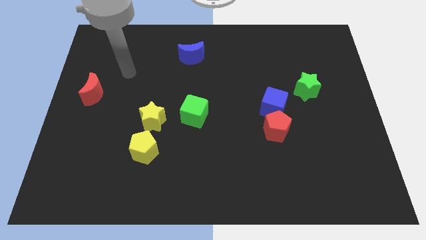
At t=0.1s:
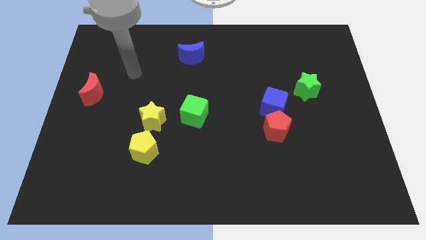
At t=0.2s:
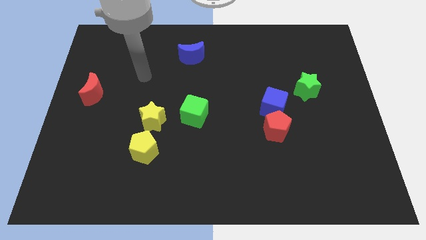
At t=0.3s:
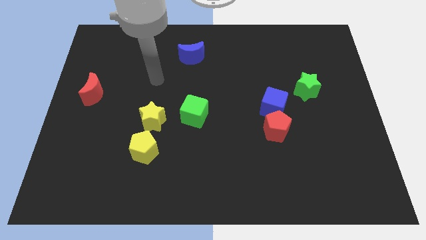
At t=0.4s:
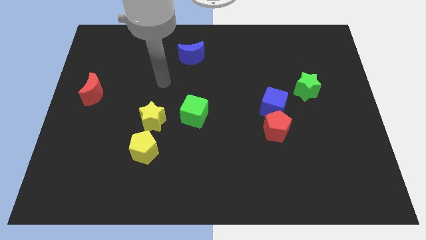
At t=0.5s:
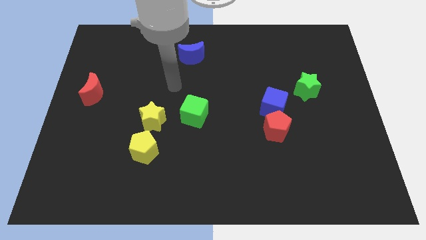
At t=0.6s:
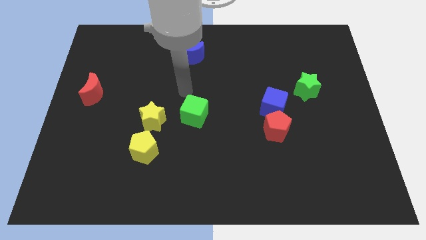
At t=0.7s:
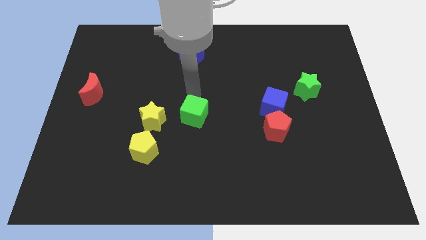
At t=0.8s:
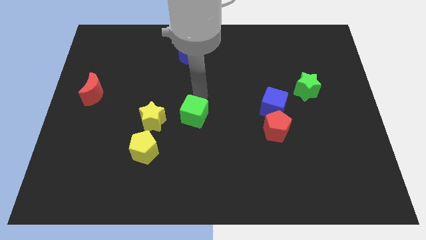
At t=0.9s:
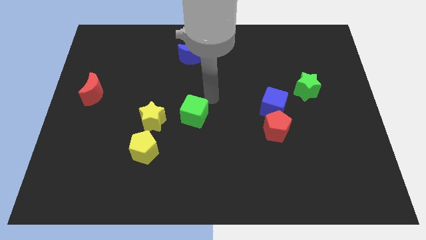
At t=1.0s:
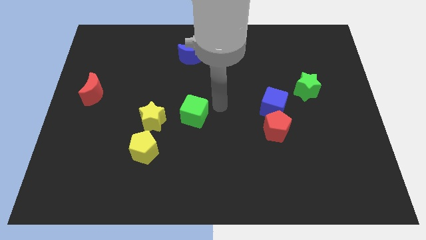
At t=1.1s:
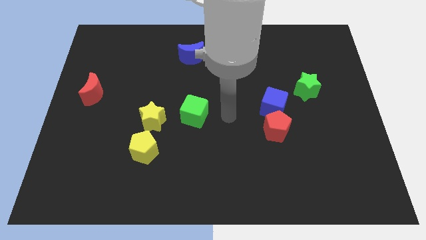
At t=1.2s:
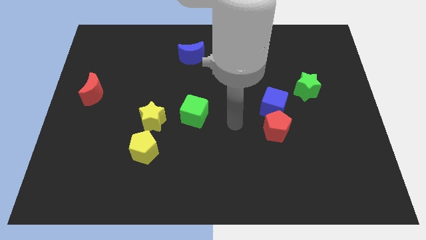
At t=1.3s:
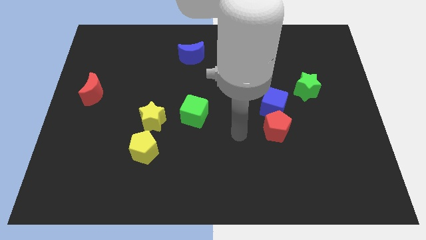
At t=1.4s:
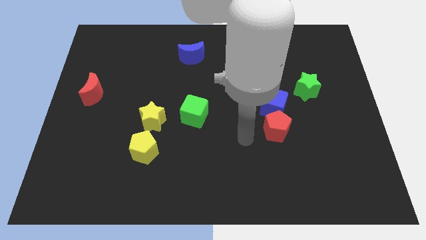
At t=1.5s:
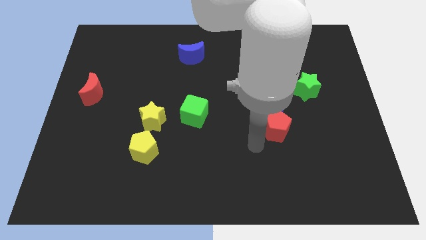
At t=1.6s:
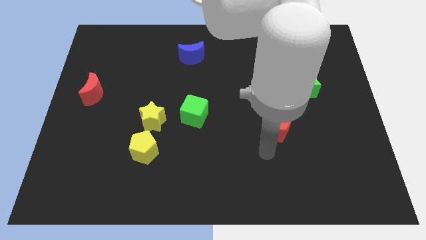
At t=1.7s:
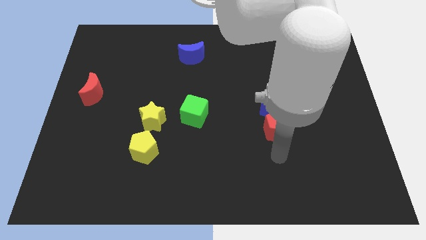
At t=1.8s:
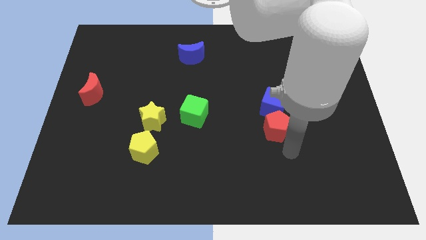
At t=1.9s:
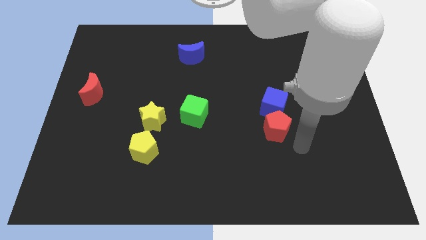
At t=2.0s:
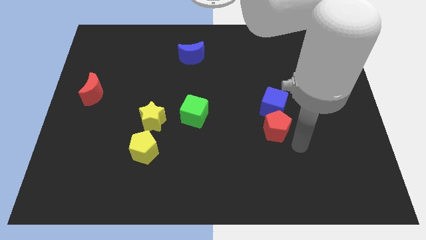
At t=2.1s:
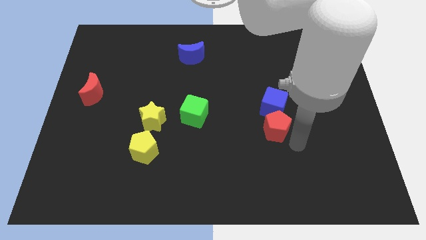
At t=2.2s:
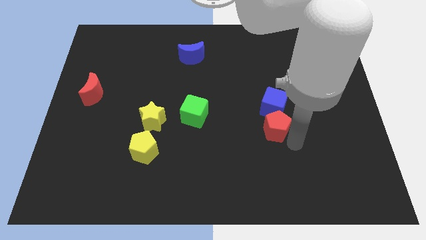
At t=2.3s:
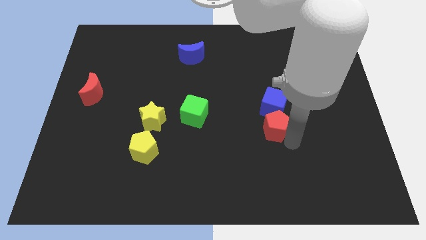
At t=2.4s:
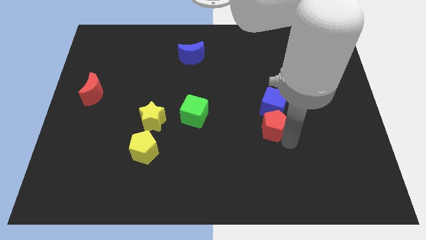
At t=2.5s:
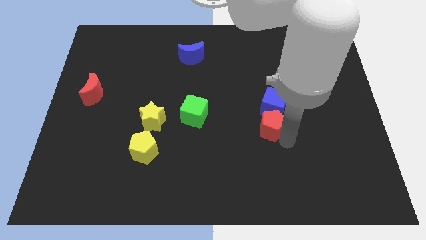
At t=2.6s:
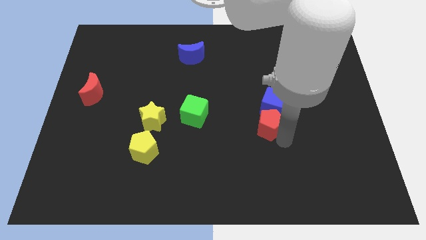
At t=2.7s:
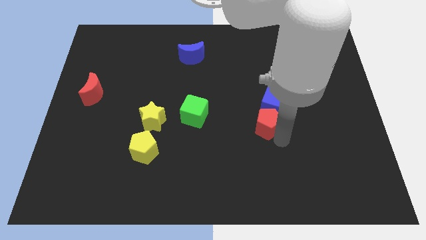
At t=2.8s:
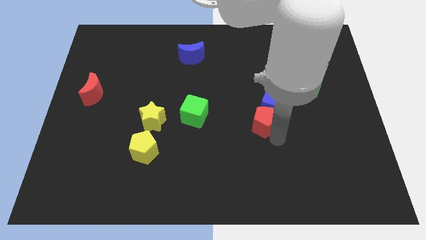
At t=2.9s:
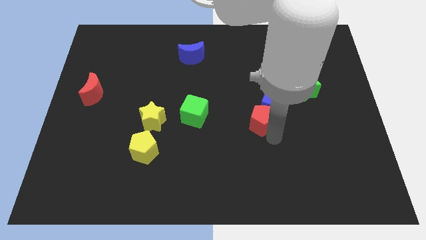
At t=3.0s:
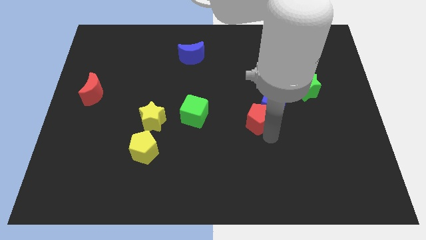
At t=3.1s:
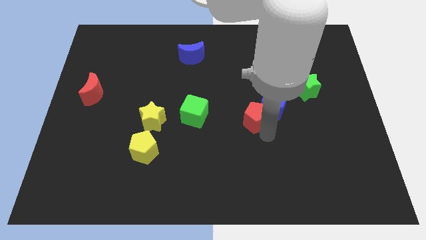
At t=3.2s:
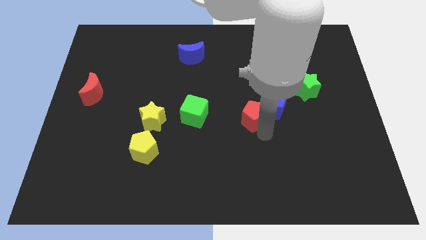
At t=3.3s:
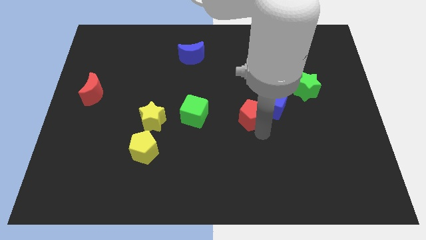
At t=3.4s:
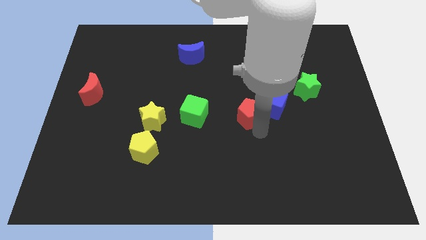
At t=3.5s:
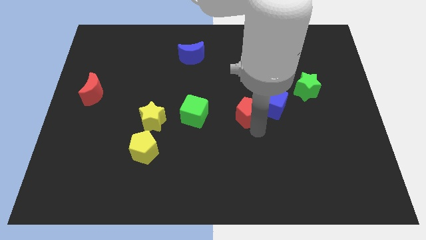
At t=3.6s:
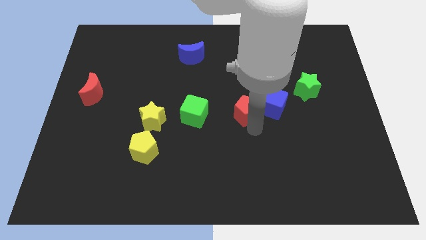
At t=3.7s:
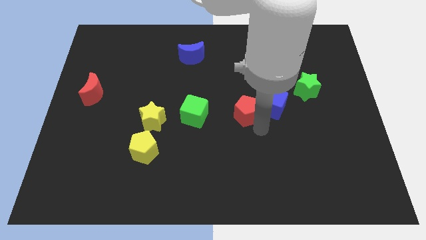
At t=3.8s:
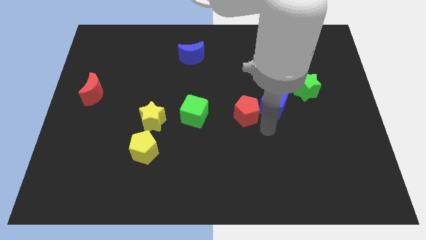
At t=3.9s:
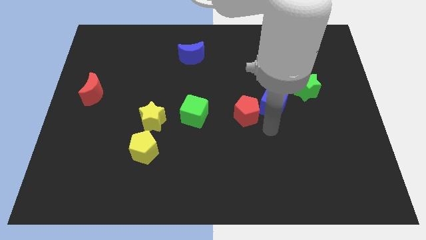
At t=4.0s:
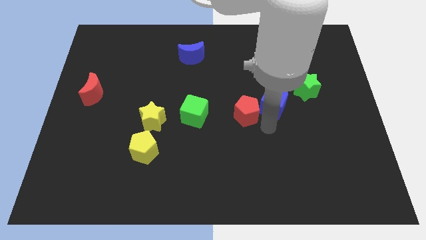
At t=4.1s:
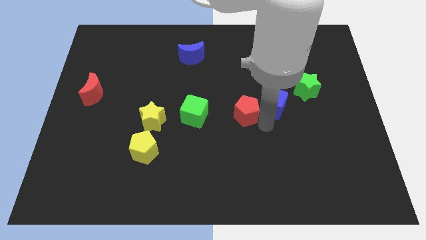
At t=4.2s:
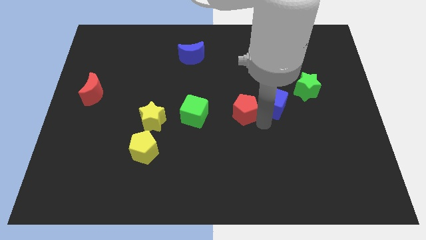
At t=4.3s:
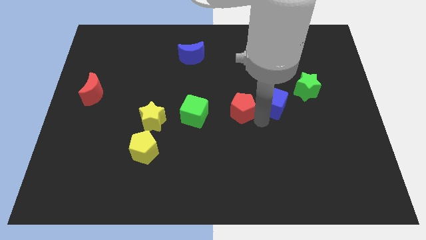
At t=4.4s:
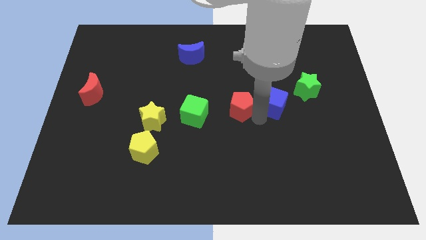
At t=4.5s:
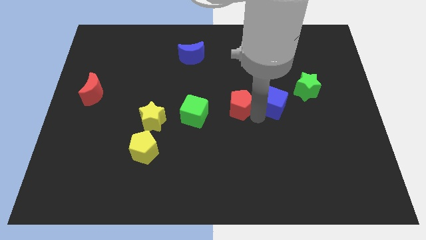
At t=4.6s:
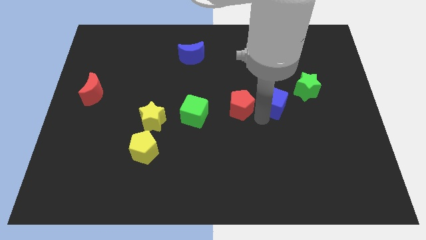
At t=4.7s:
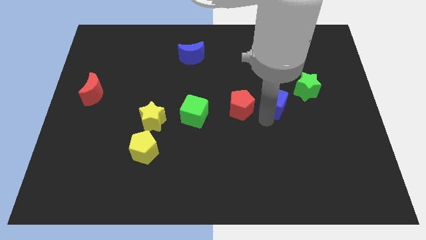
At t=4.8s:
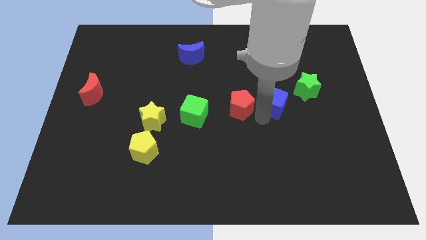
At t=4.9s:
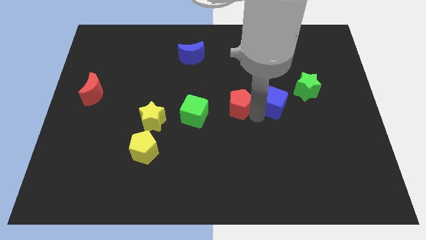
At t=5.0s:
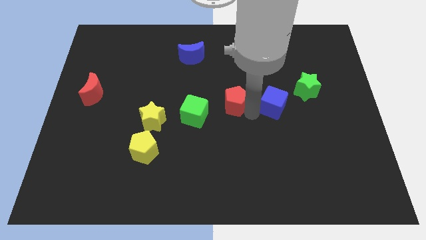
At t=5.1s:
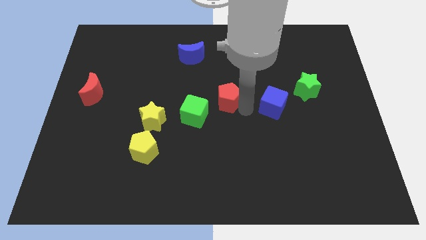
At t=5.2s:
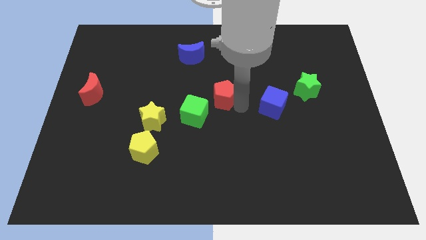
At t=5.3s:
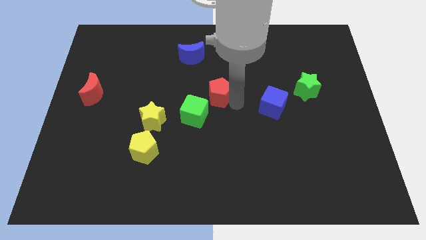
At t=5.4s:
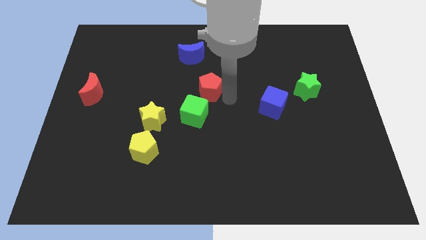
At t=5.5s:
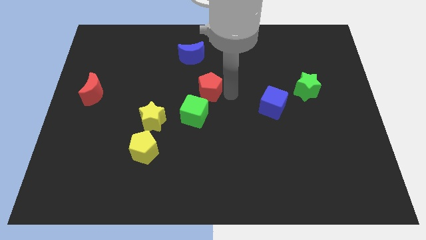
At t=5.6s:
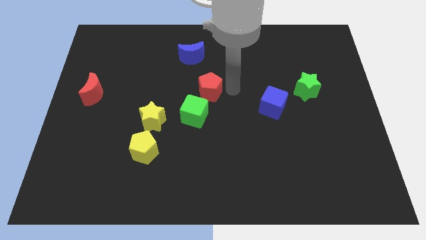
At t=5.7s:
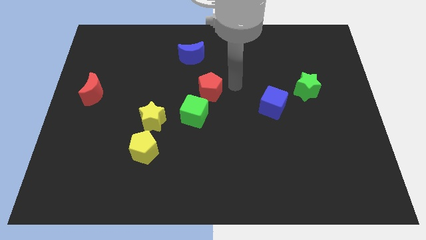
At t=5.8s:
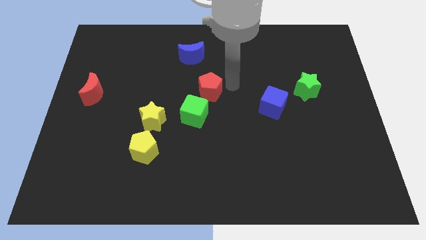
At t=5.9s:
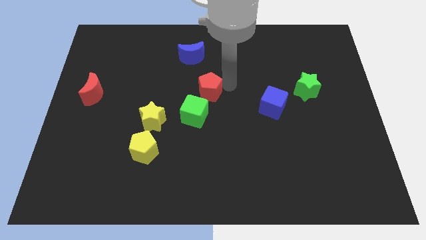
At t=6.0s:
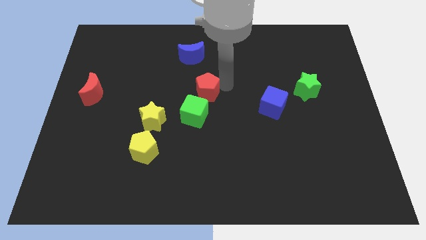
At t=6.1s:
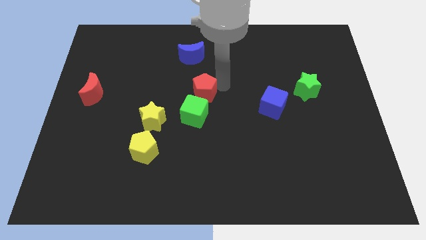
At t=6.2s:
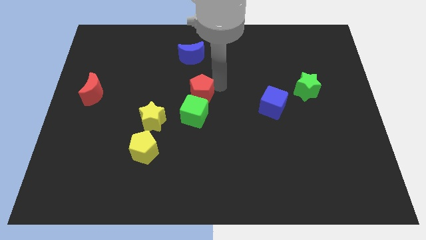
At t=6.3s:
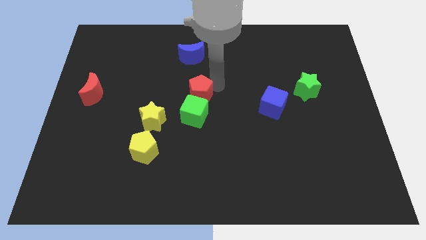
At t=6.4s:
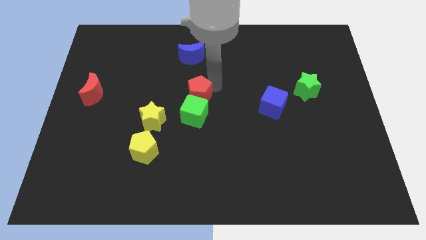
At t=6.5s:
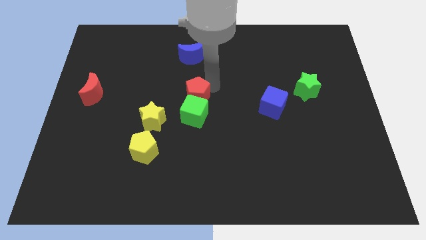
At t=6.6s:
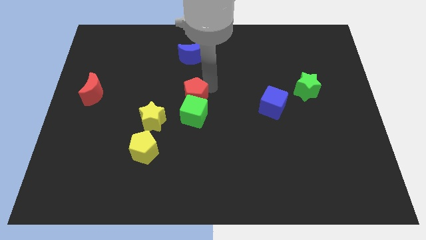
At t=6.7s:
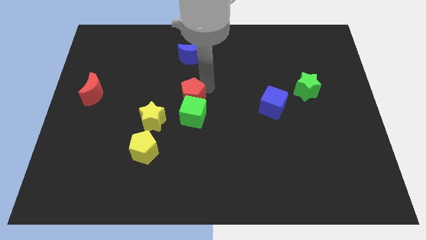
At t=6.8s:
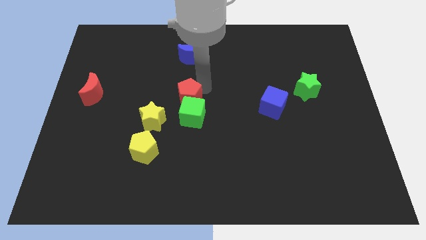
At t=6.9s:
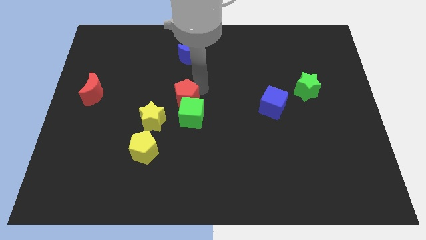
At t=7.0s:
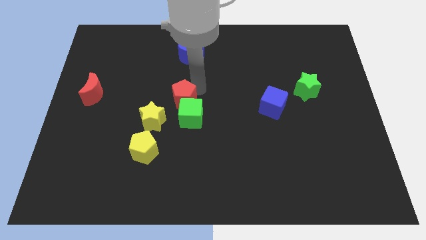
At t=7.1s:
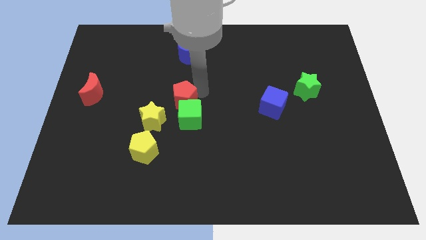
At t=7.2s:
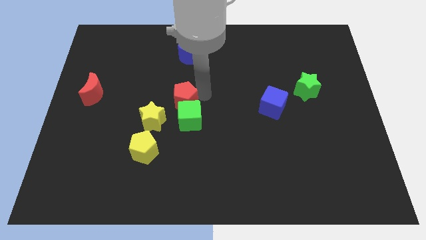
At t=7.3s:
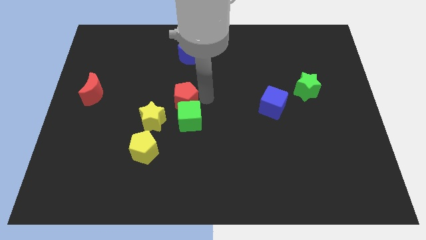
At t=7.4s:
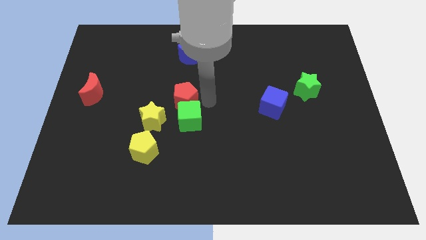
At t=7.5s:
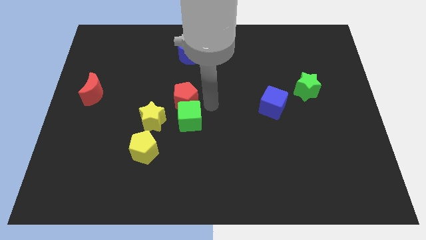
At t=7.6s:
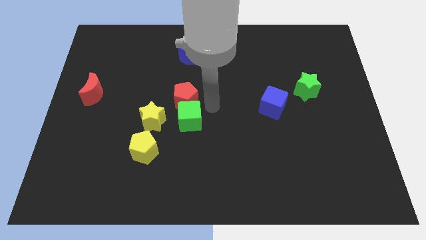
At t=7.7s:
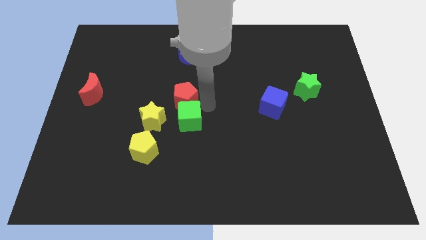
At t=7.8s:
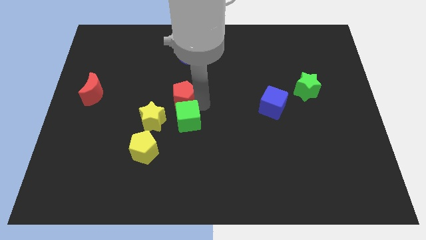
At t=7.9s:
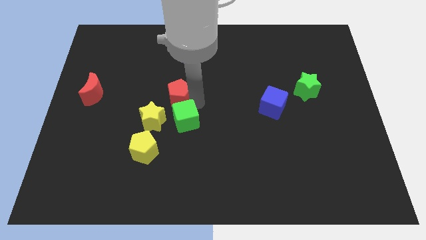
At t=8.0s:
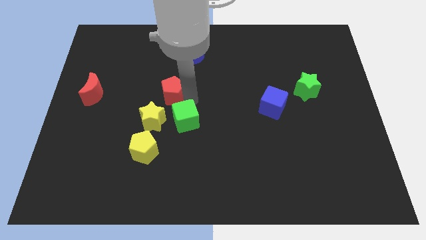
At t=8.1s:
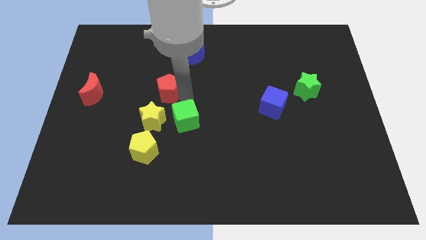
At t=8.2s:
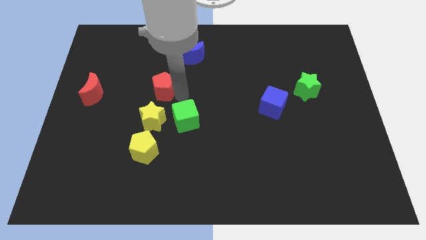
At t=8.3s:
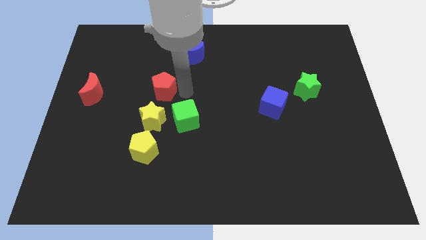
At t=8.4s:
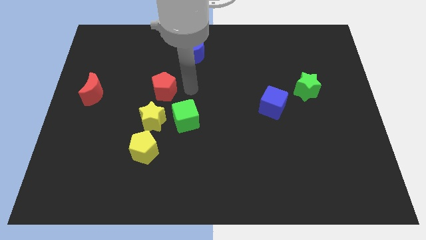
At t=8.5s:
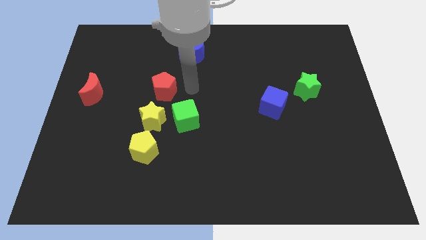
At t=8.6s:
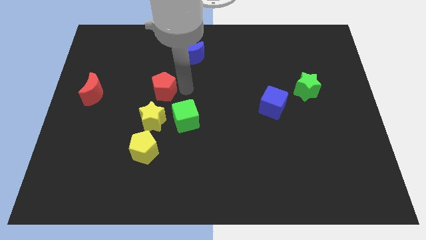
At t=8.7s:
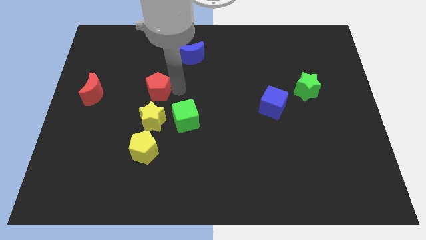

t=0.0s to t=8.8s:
move the red pentagon to the right of the red moon
